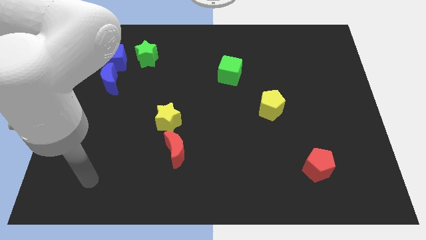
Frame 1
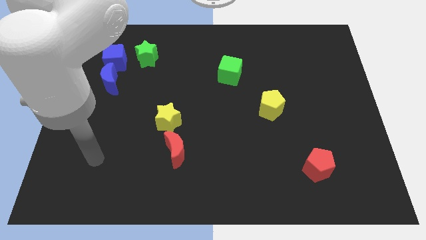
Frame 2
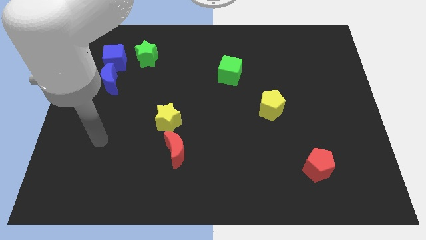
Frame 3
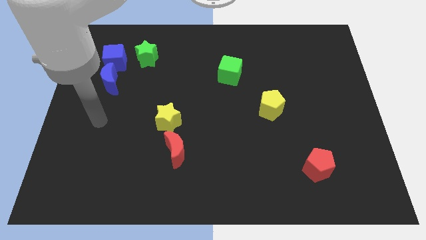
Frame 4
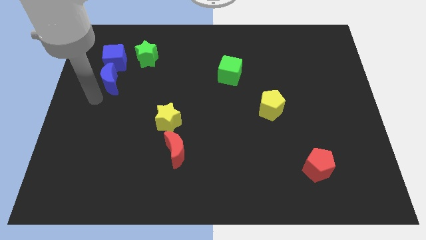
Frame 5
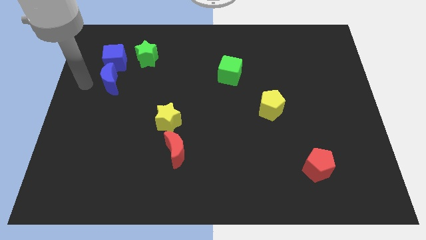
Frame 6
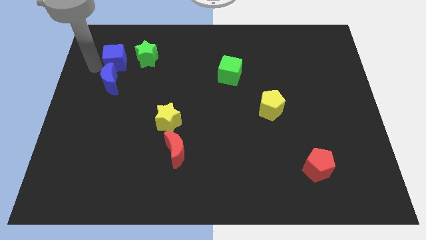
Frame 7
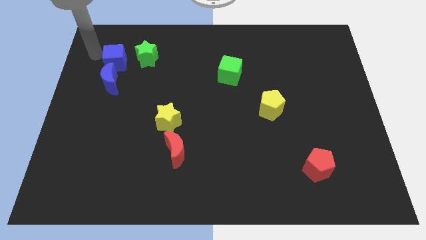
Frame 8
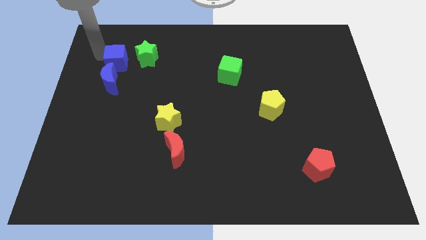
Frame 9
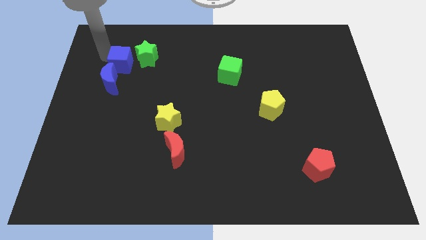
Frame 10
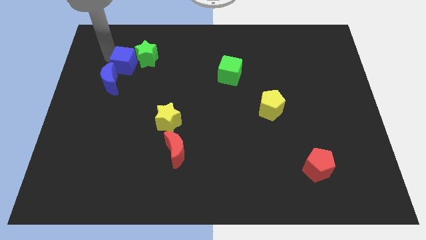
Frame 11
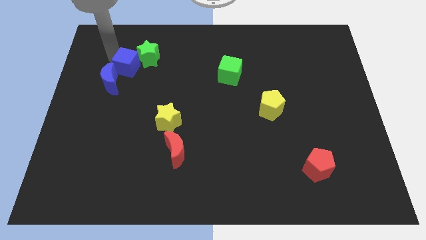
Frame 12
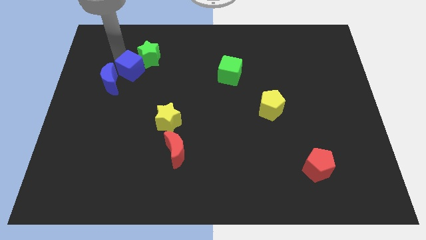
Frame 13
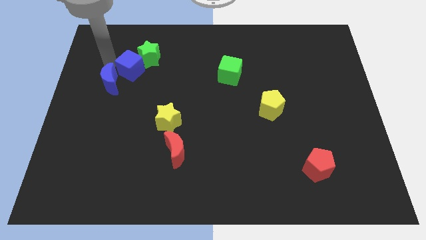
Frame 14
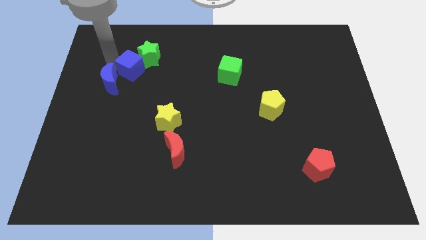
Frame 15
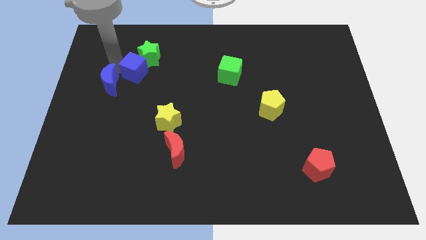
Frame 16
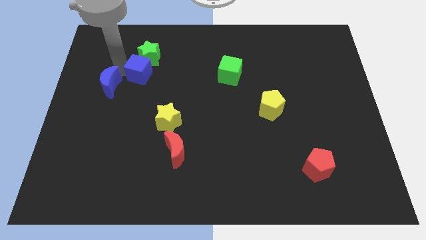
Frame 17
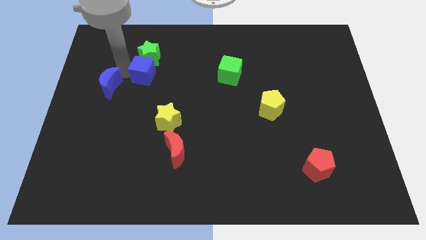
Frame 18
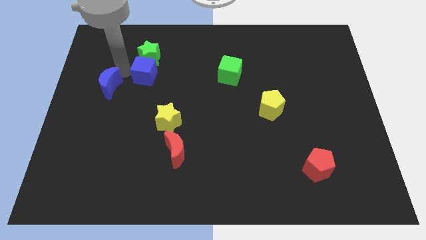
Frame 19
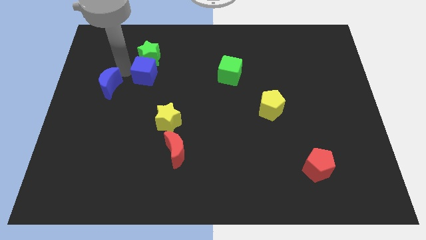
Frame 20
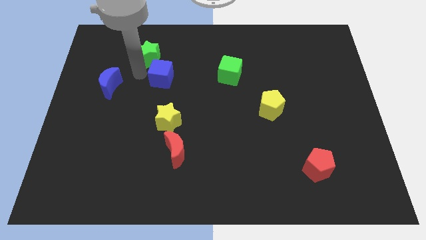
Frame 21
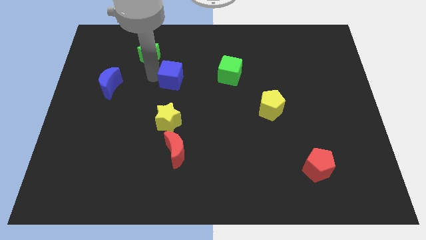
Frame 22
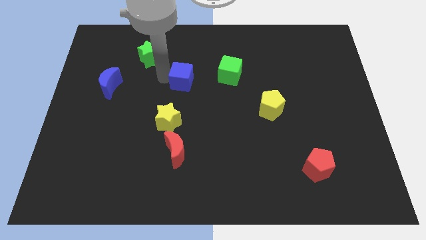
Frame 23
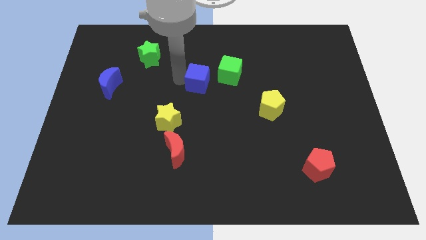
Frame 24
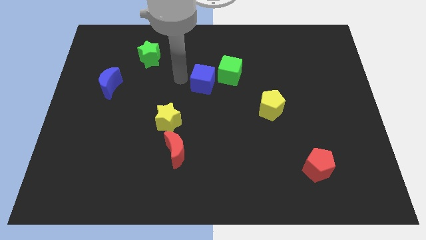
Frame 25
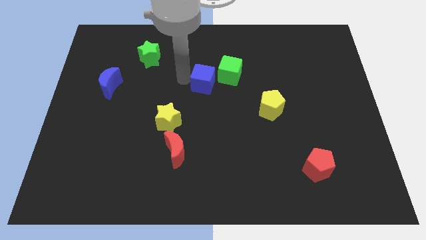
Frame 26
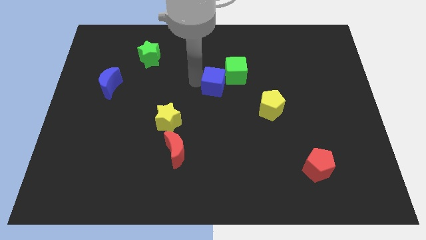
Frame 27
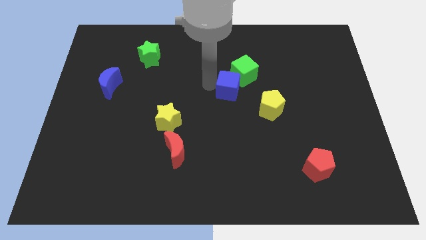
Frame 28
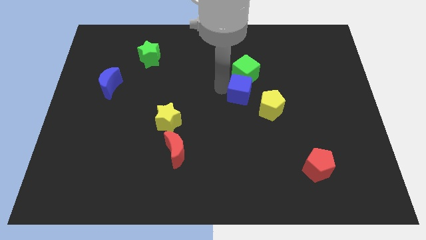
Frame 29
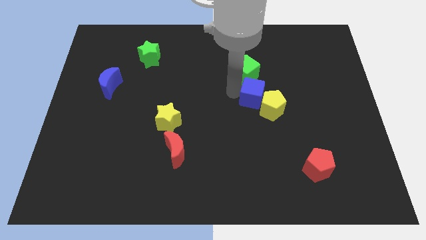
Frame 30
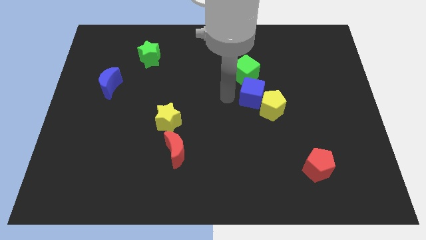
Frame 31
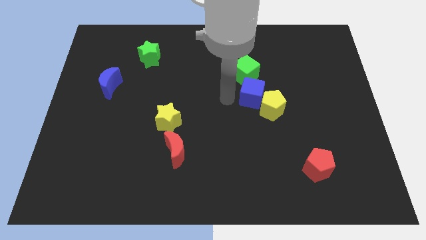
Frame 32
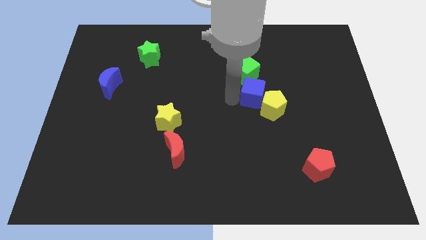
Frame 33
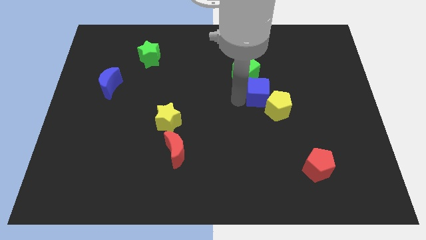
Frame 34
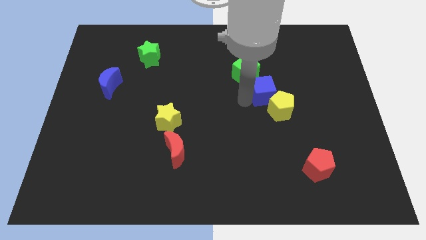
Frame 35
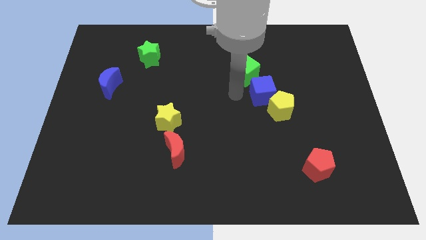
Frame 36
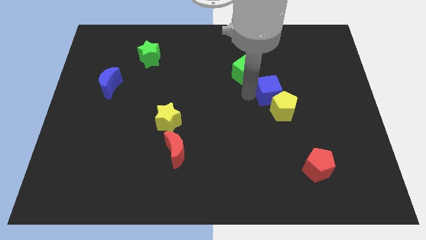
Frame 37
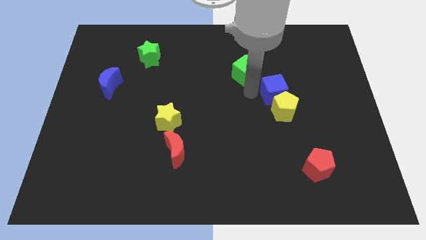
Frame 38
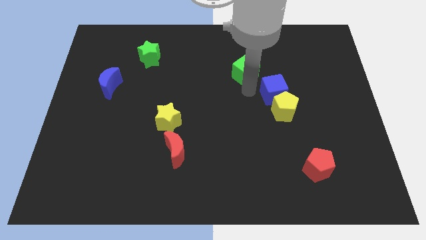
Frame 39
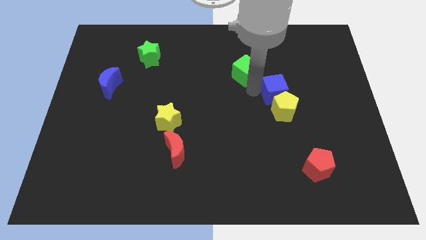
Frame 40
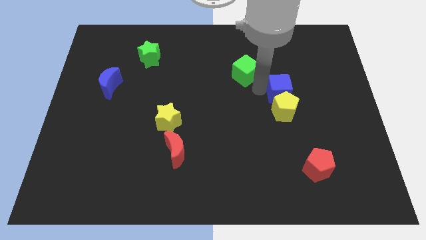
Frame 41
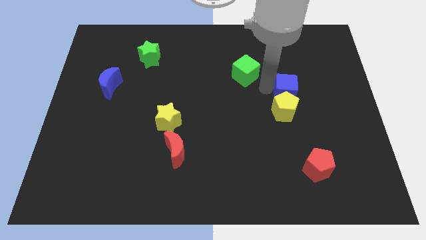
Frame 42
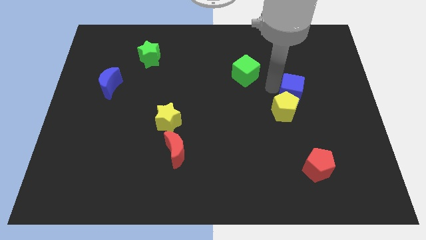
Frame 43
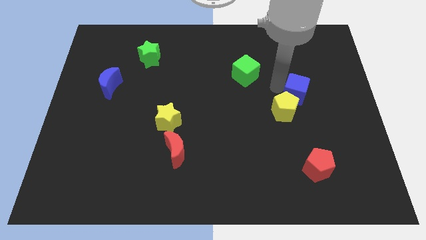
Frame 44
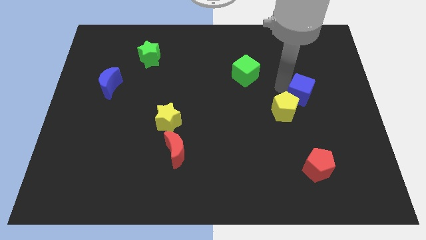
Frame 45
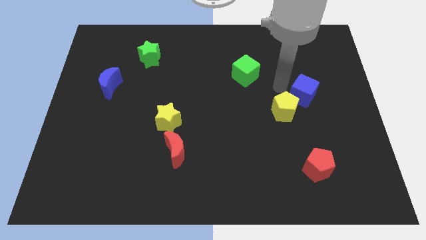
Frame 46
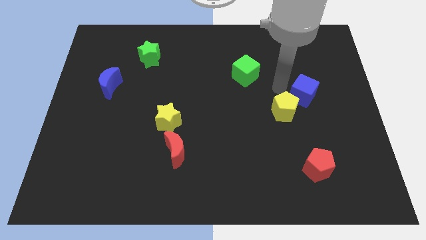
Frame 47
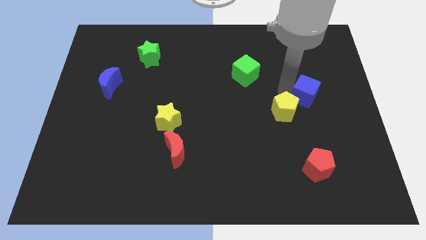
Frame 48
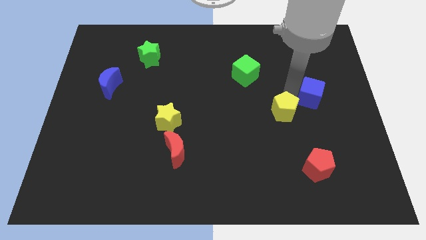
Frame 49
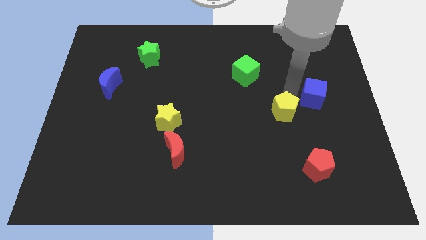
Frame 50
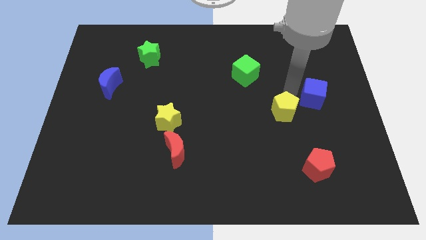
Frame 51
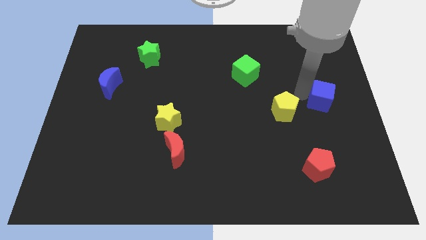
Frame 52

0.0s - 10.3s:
move the blue cube to the right side

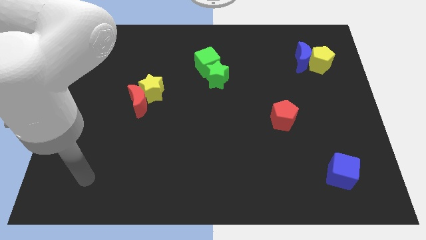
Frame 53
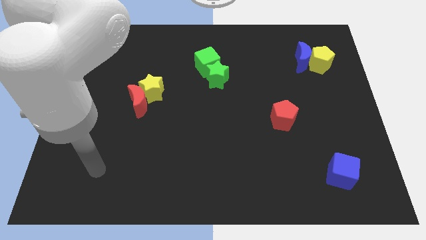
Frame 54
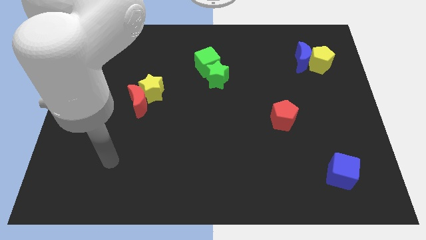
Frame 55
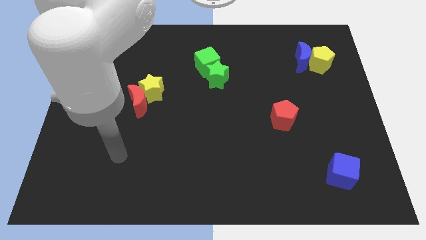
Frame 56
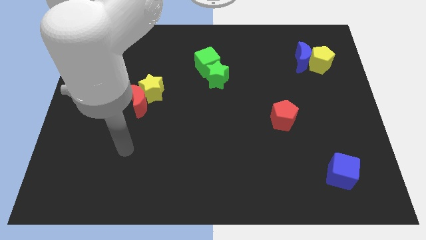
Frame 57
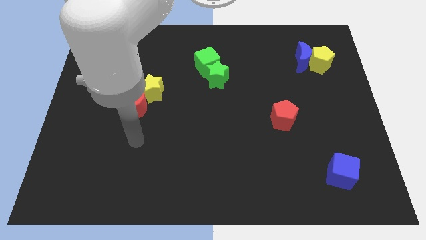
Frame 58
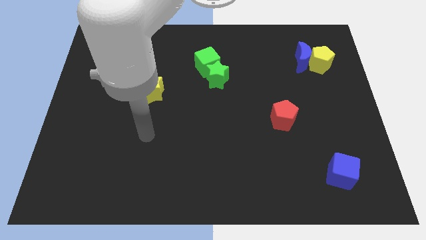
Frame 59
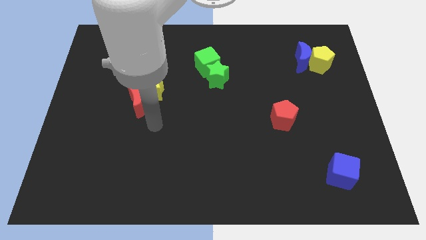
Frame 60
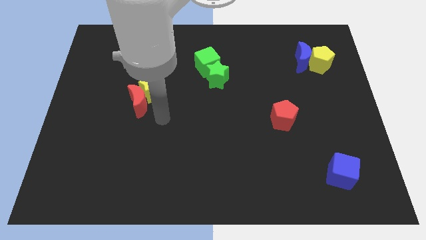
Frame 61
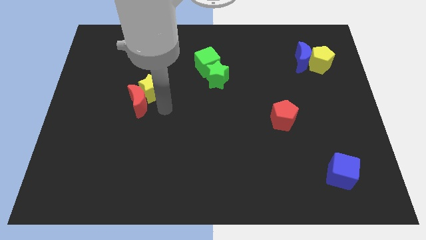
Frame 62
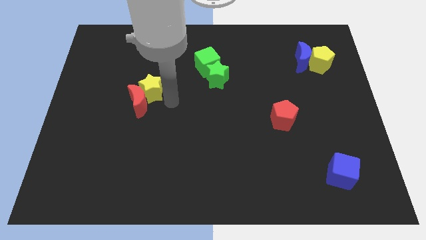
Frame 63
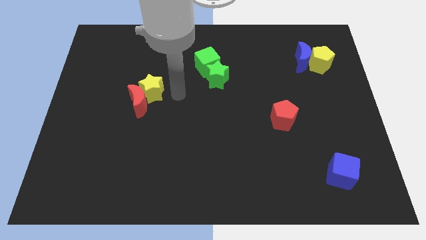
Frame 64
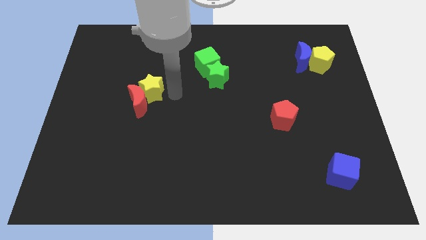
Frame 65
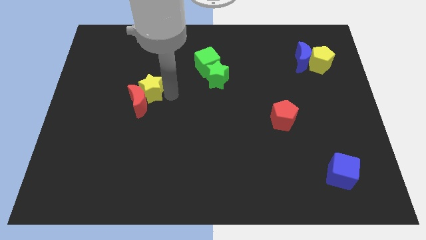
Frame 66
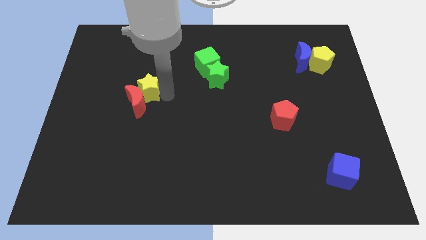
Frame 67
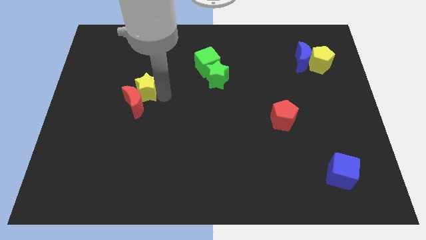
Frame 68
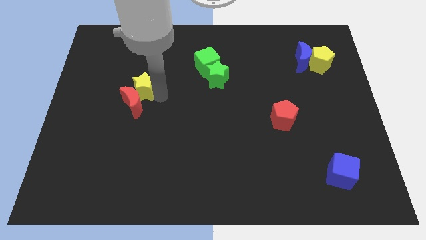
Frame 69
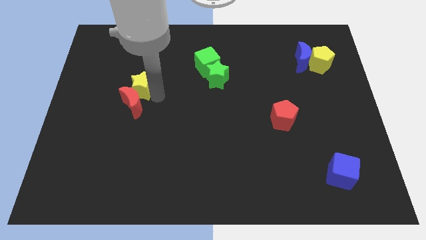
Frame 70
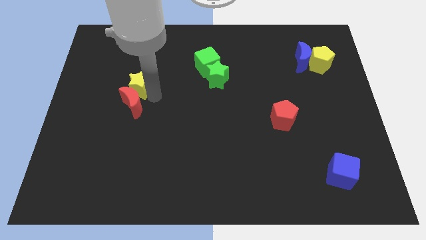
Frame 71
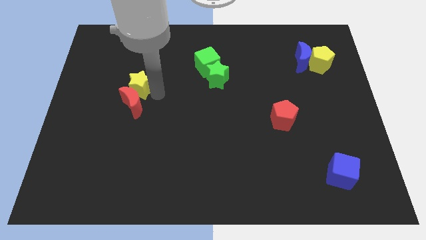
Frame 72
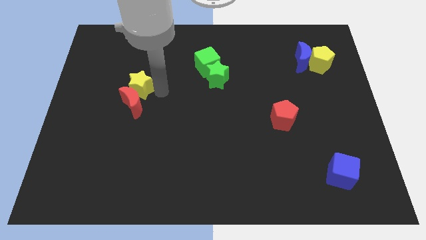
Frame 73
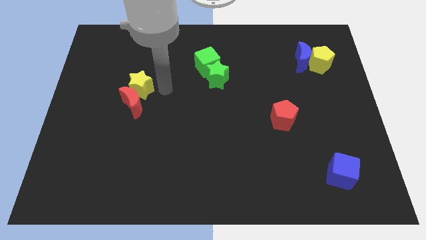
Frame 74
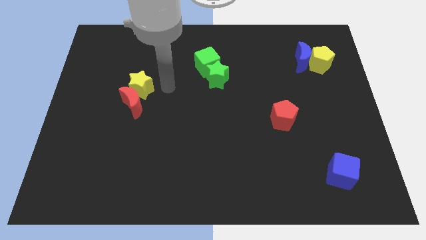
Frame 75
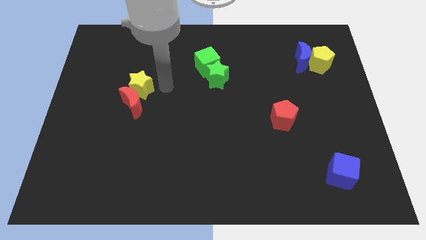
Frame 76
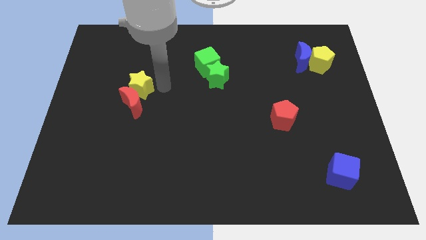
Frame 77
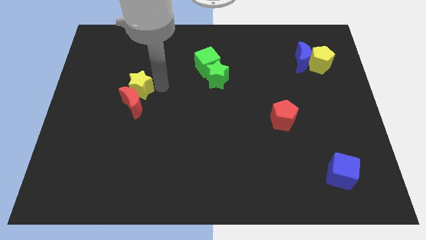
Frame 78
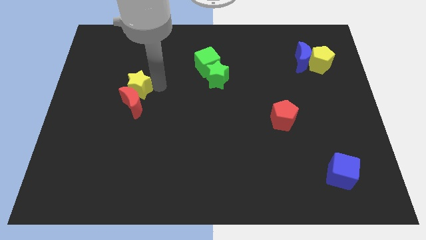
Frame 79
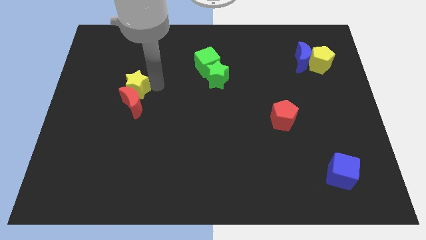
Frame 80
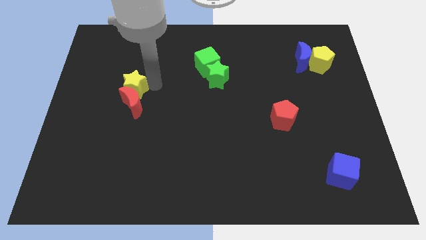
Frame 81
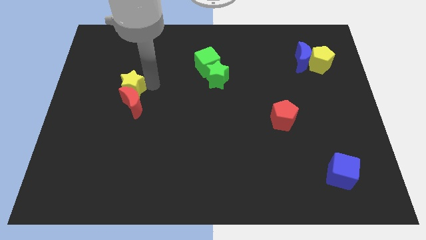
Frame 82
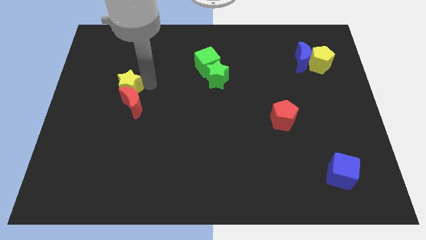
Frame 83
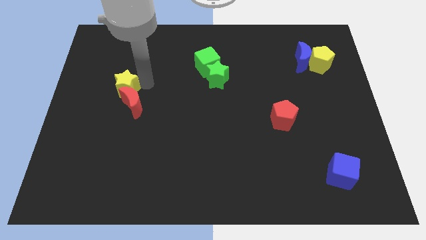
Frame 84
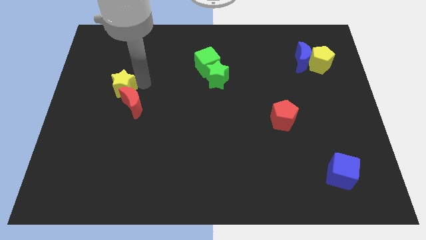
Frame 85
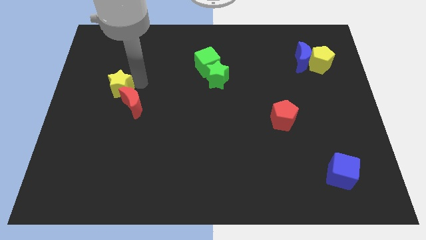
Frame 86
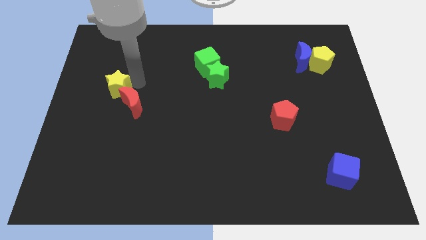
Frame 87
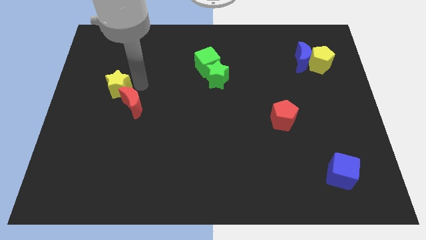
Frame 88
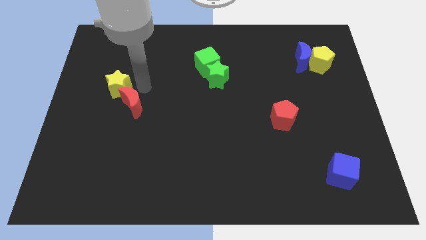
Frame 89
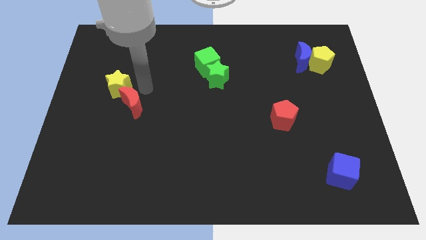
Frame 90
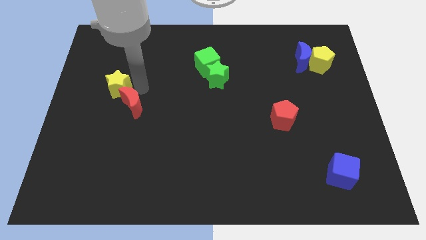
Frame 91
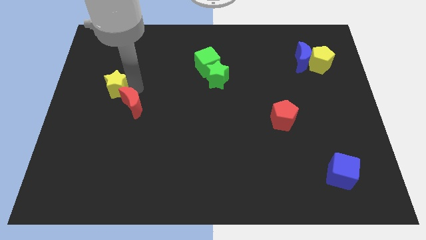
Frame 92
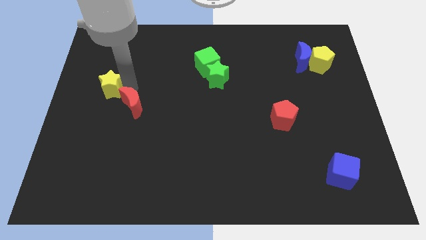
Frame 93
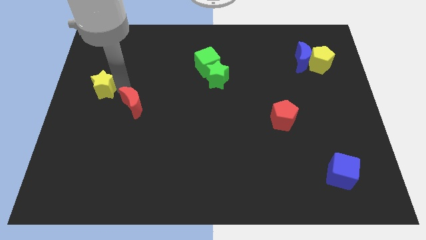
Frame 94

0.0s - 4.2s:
put the yellow star to the left side
